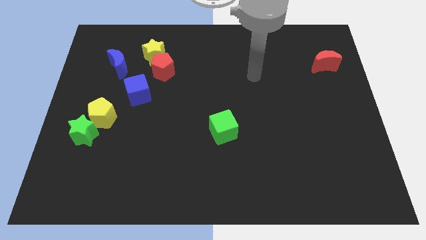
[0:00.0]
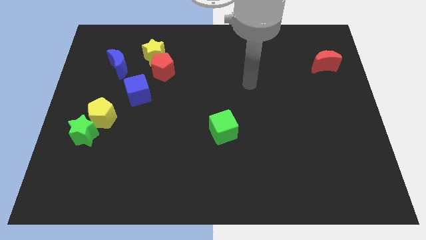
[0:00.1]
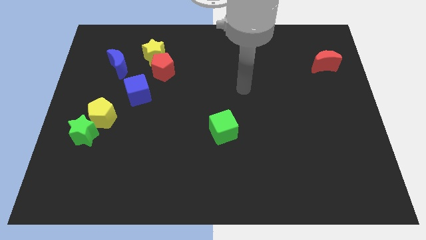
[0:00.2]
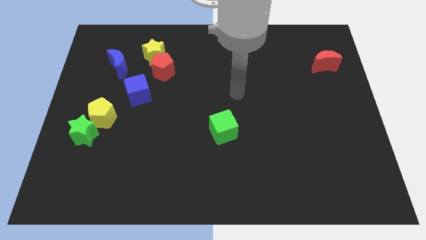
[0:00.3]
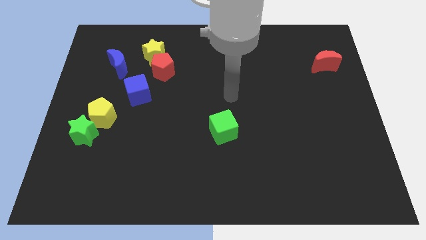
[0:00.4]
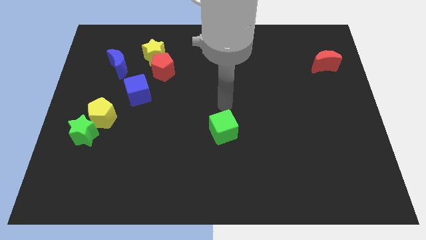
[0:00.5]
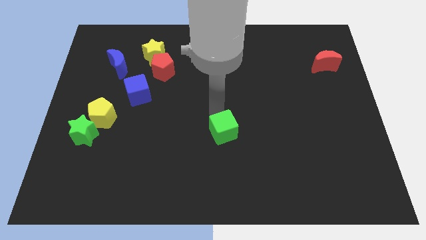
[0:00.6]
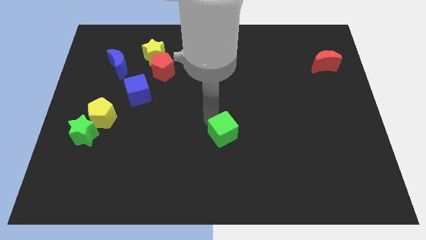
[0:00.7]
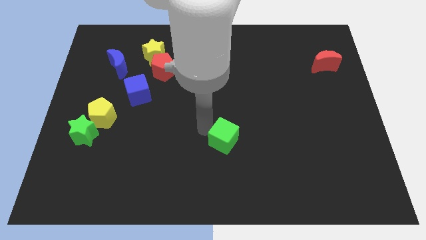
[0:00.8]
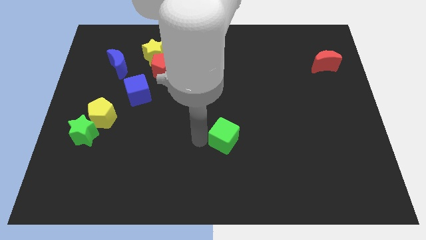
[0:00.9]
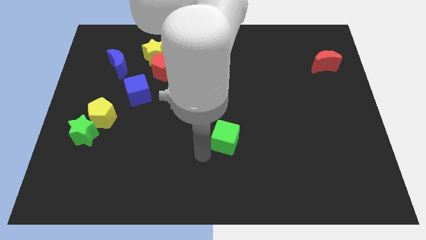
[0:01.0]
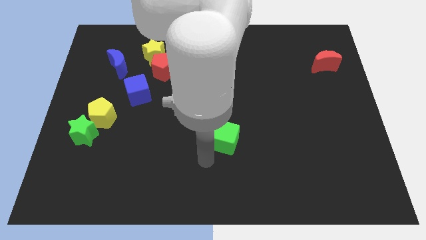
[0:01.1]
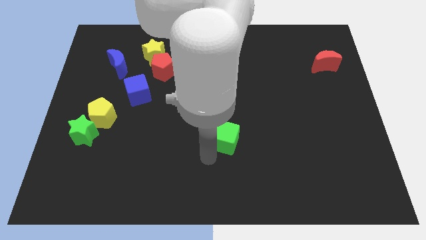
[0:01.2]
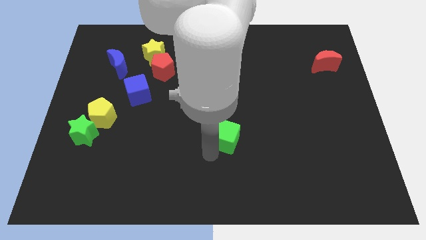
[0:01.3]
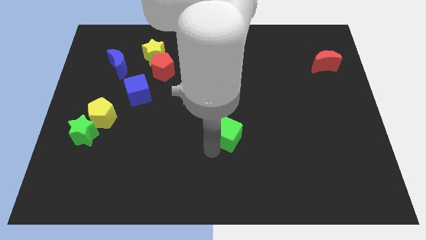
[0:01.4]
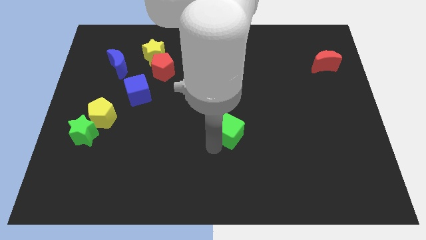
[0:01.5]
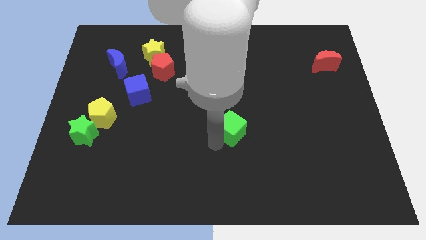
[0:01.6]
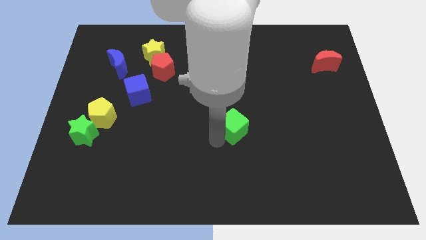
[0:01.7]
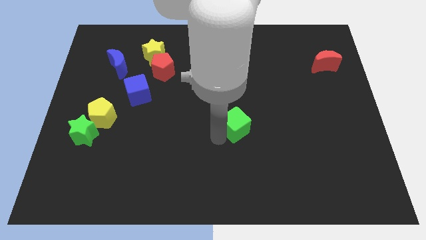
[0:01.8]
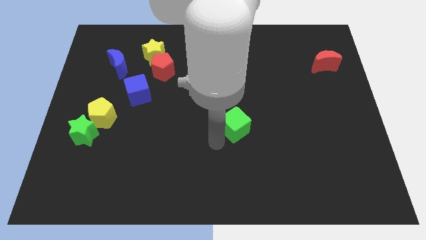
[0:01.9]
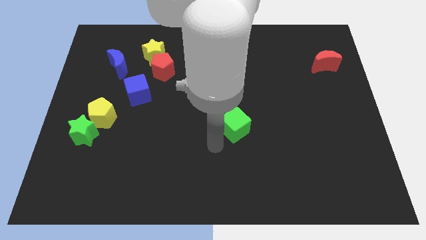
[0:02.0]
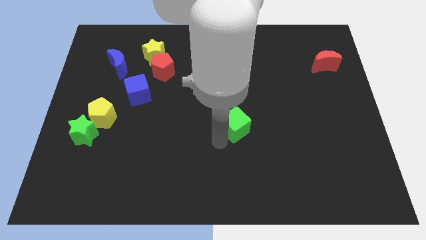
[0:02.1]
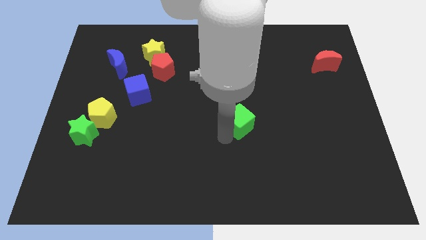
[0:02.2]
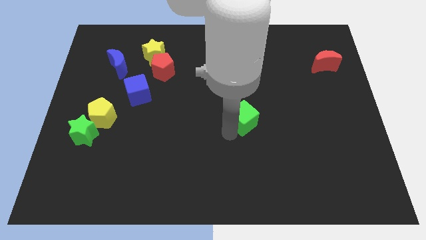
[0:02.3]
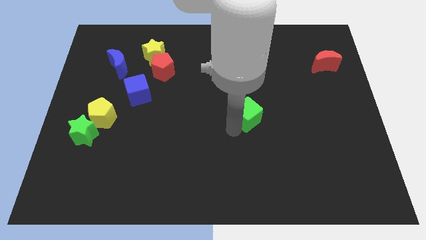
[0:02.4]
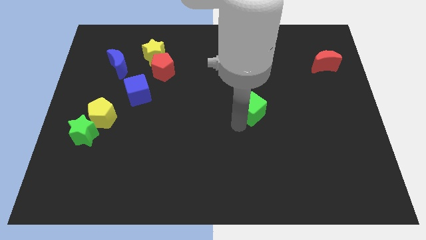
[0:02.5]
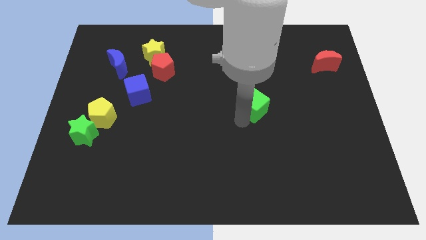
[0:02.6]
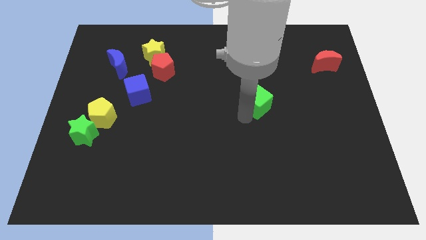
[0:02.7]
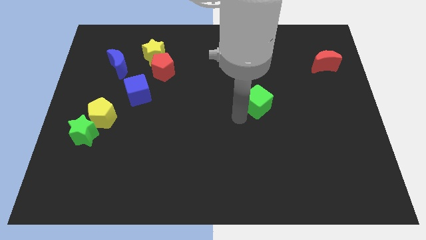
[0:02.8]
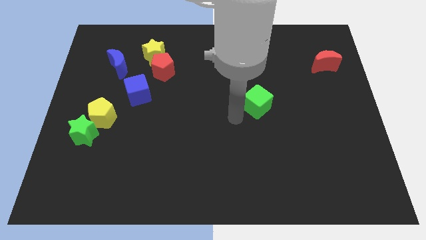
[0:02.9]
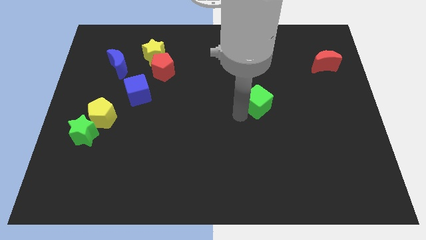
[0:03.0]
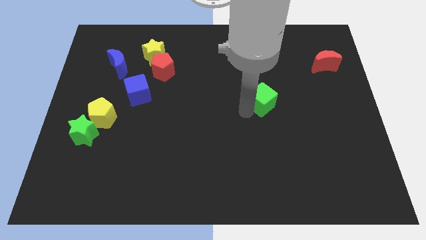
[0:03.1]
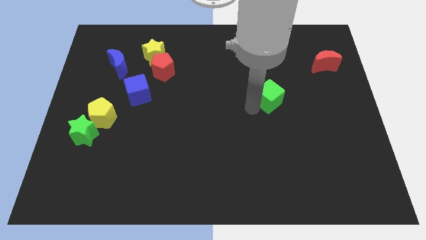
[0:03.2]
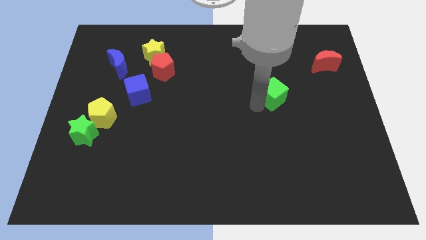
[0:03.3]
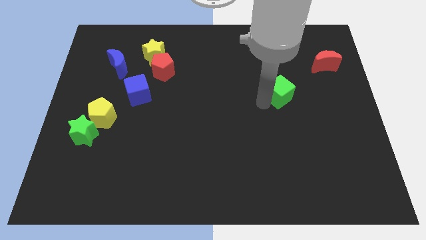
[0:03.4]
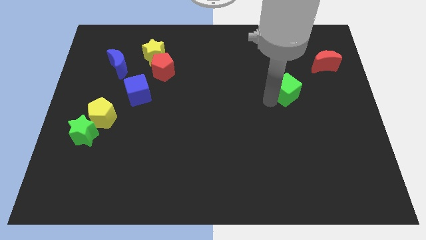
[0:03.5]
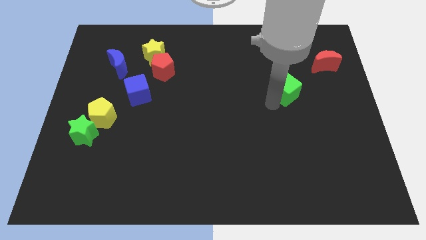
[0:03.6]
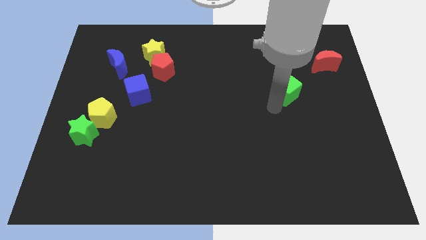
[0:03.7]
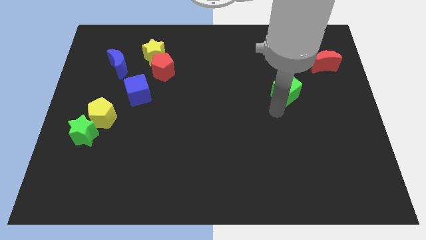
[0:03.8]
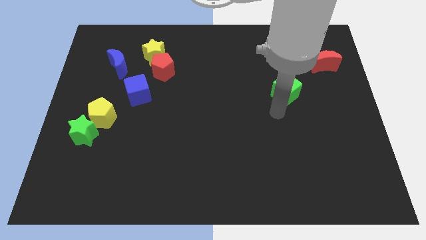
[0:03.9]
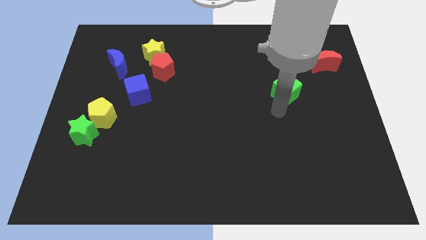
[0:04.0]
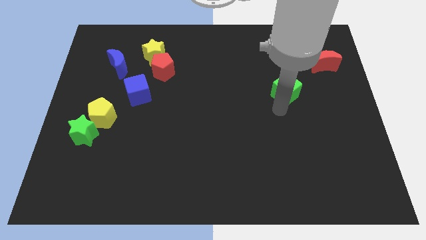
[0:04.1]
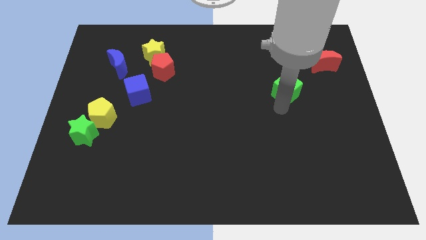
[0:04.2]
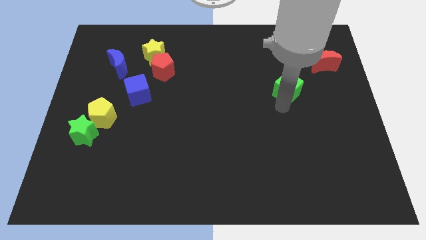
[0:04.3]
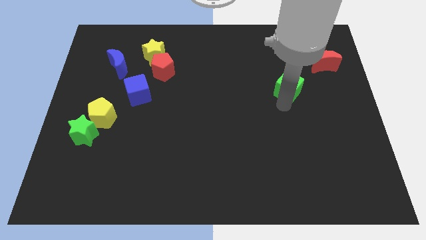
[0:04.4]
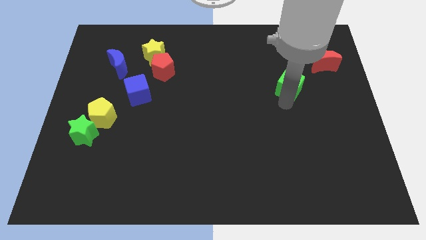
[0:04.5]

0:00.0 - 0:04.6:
move the green cube up and right

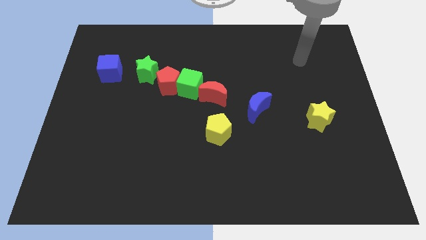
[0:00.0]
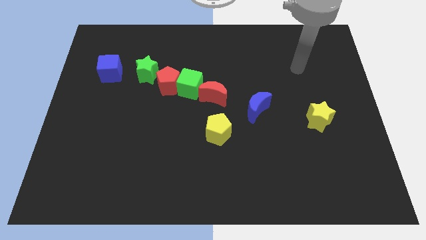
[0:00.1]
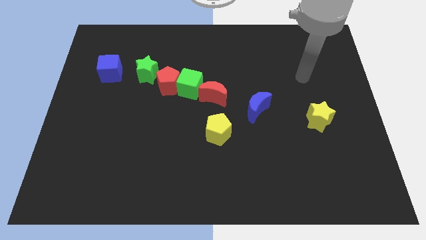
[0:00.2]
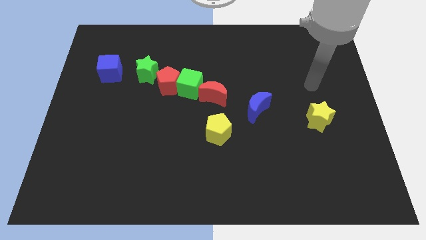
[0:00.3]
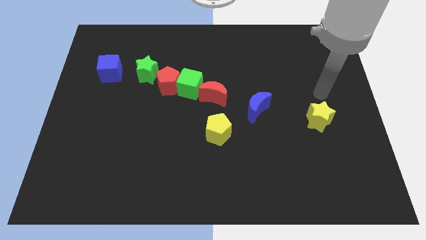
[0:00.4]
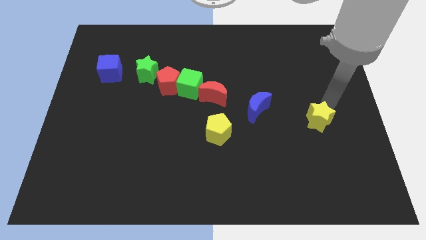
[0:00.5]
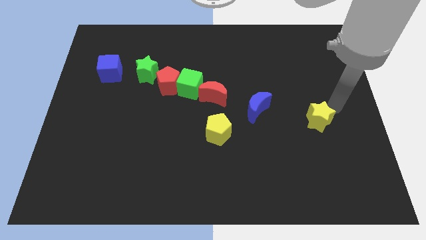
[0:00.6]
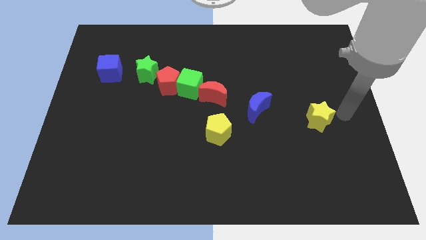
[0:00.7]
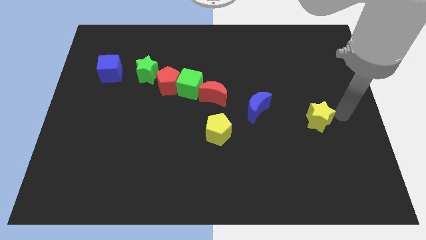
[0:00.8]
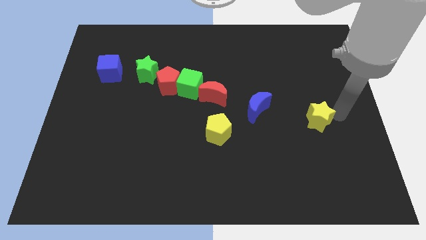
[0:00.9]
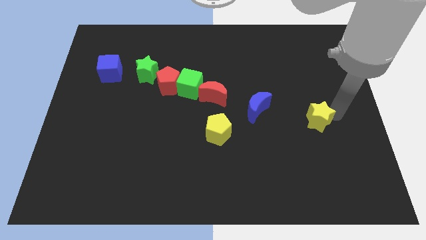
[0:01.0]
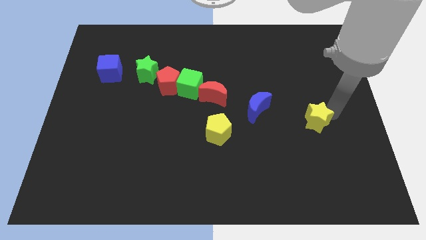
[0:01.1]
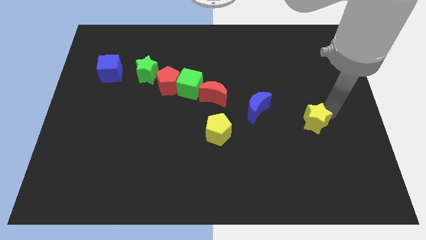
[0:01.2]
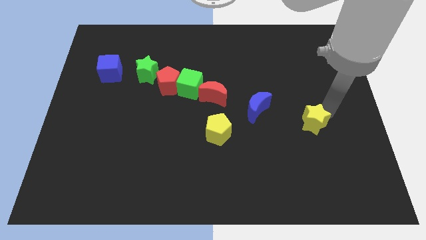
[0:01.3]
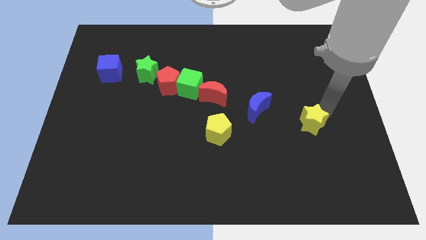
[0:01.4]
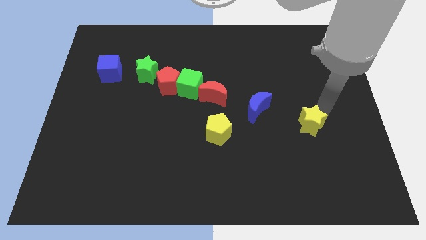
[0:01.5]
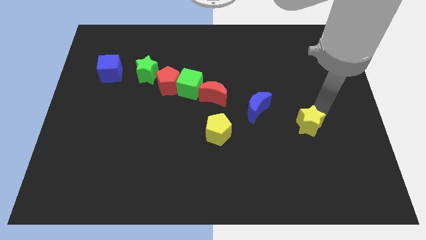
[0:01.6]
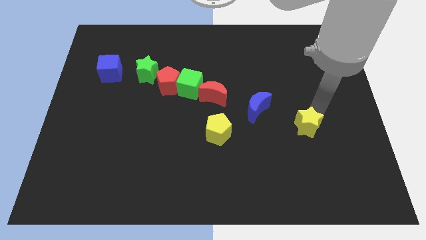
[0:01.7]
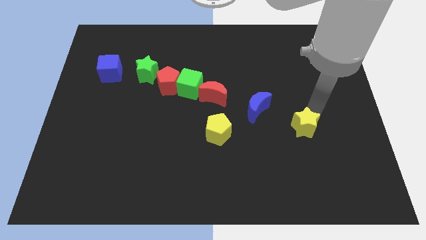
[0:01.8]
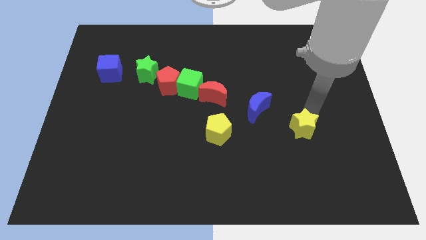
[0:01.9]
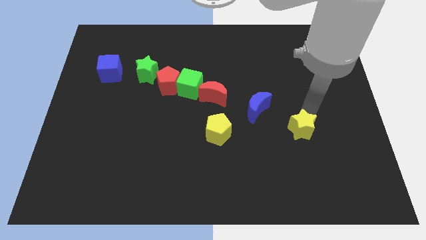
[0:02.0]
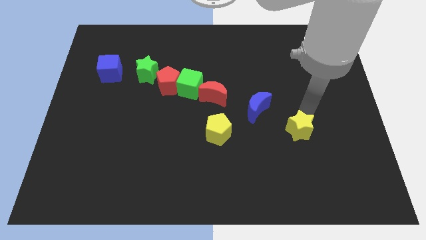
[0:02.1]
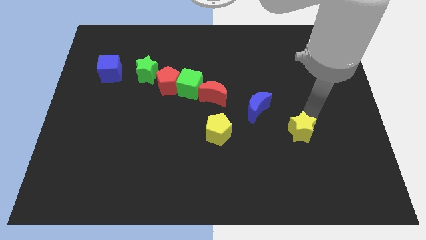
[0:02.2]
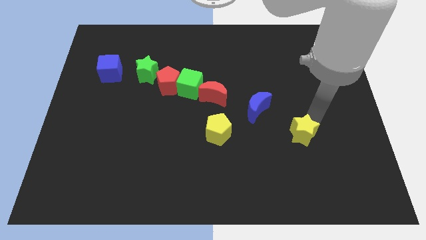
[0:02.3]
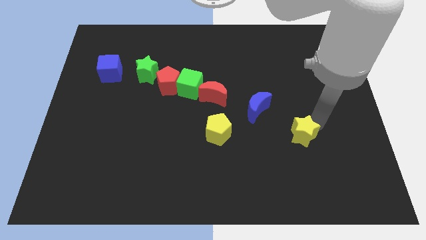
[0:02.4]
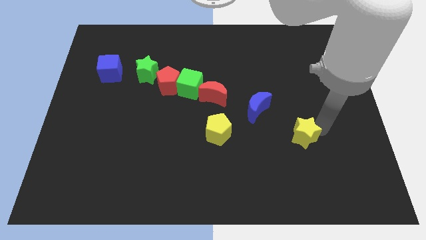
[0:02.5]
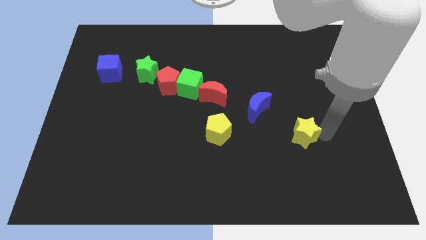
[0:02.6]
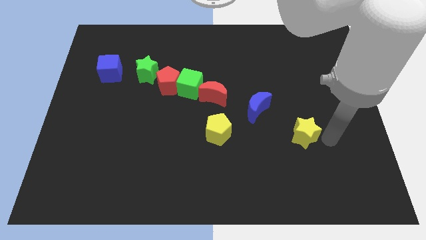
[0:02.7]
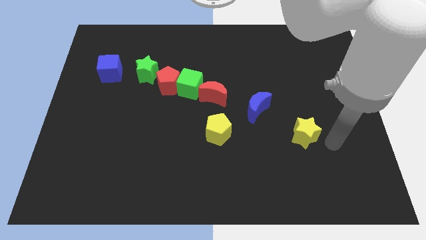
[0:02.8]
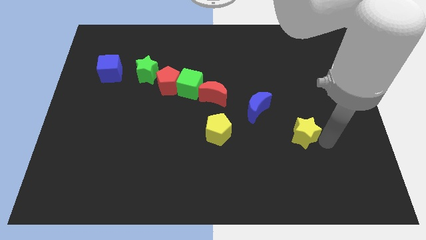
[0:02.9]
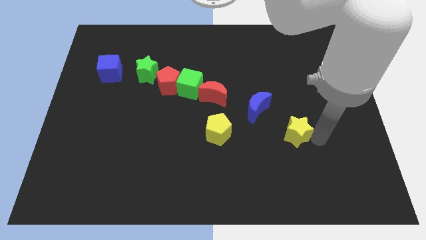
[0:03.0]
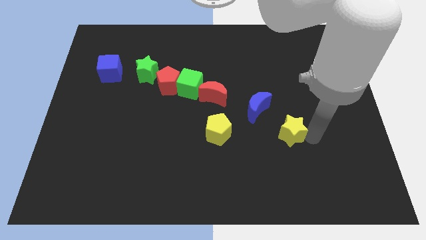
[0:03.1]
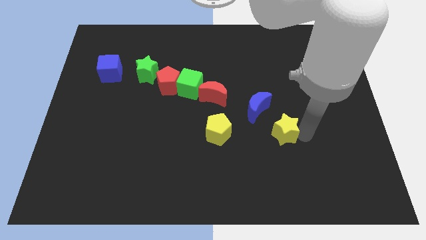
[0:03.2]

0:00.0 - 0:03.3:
move the yellow star a little left

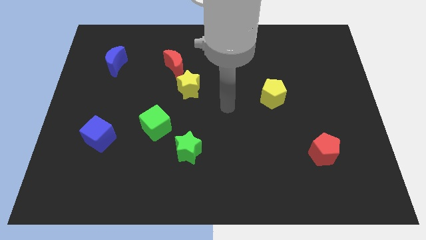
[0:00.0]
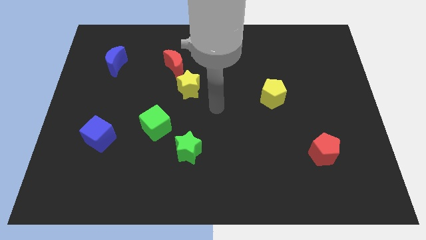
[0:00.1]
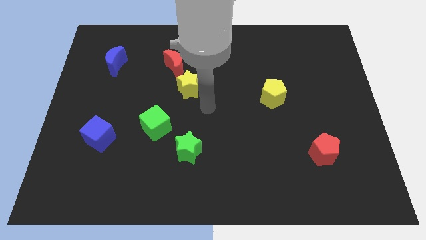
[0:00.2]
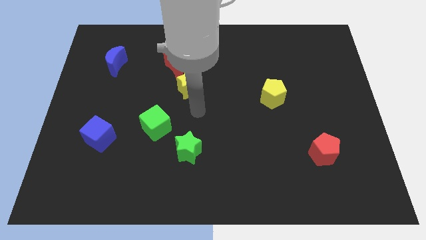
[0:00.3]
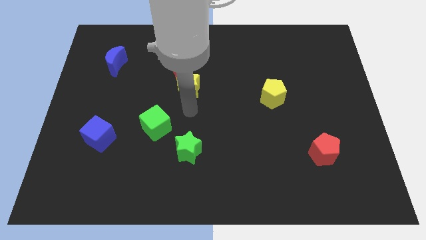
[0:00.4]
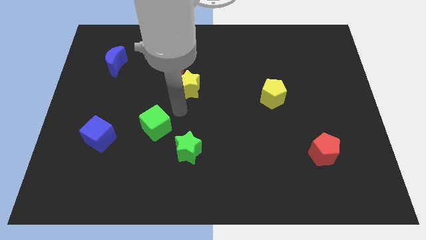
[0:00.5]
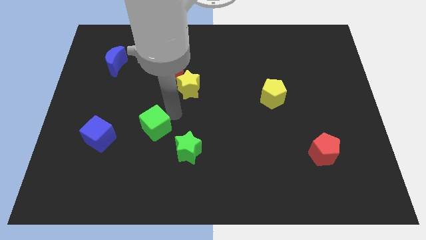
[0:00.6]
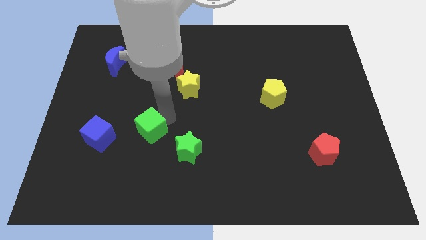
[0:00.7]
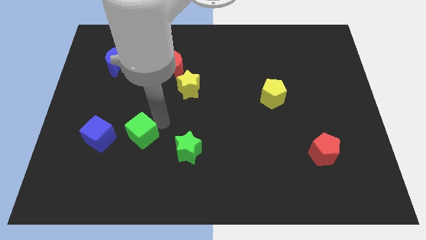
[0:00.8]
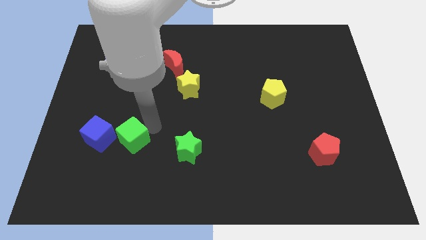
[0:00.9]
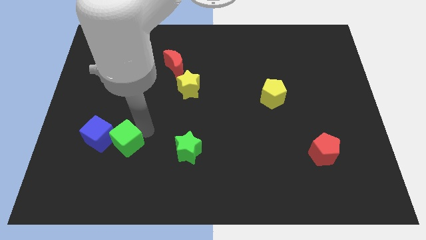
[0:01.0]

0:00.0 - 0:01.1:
move the green cube a bit down and to the left diagonally
